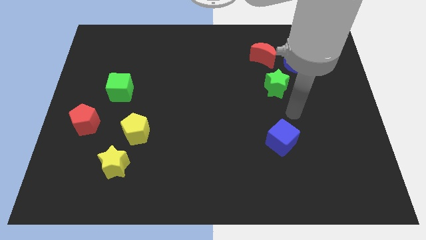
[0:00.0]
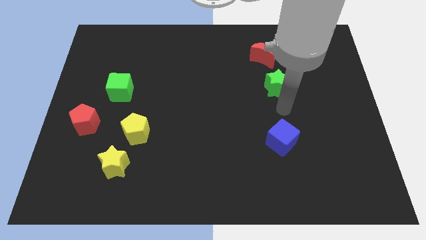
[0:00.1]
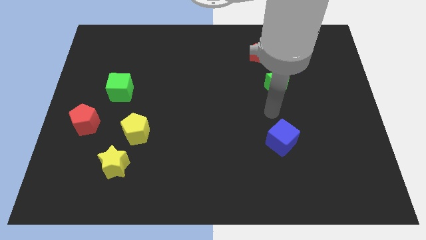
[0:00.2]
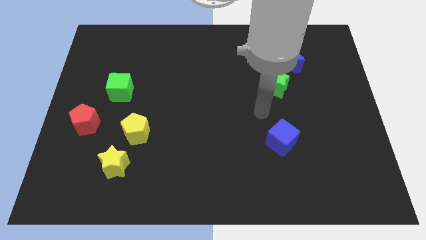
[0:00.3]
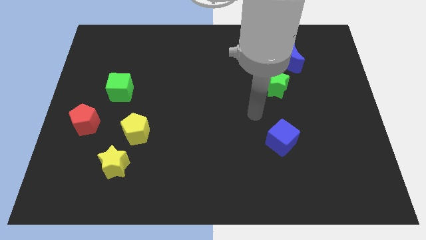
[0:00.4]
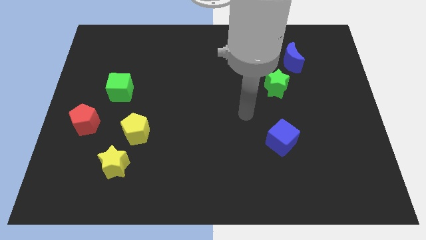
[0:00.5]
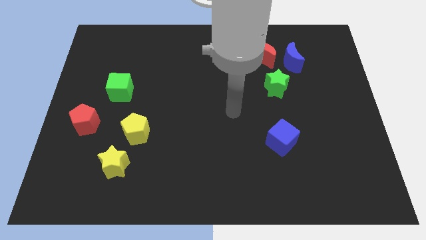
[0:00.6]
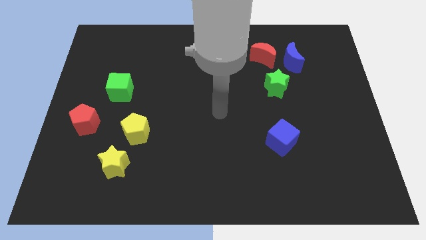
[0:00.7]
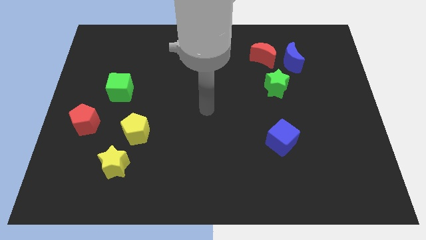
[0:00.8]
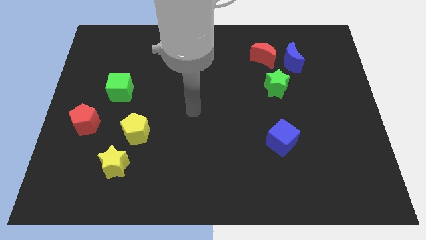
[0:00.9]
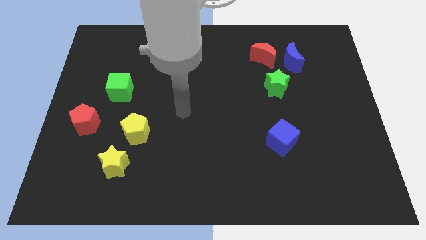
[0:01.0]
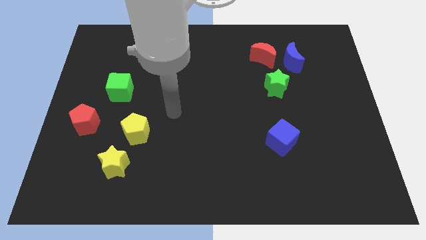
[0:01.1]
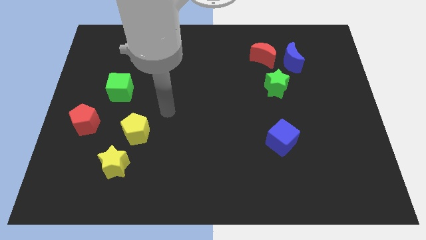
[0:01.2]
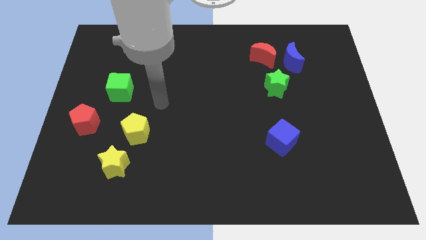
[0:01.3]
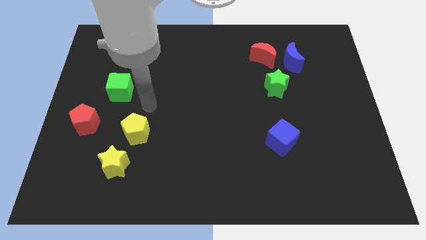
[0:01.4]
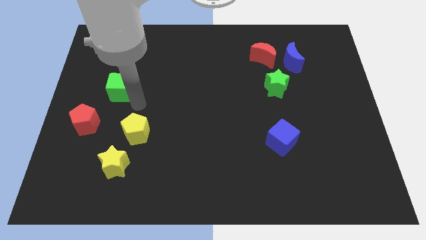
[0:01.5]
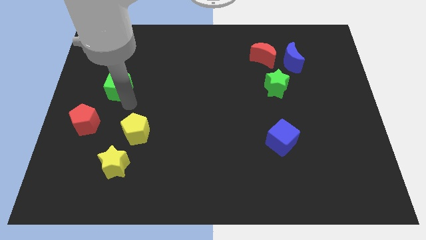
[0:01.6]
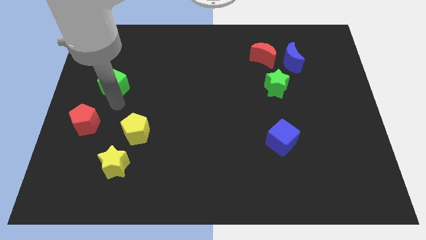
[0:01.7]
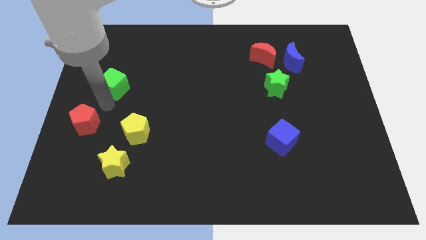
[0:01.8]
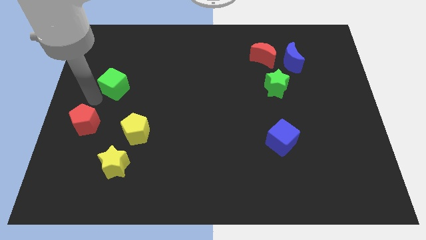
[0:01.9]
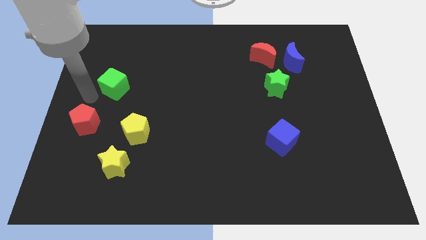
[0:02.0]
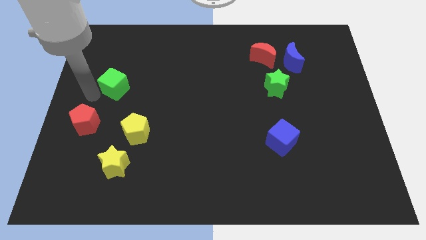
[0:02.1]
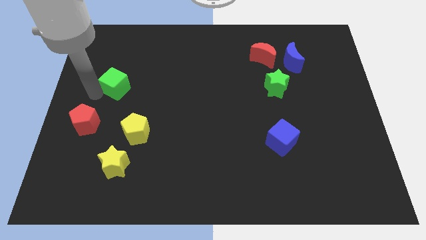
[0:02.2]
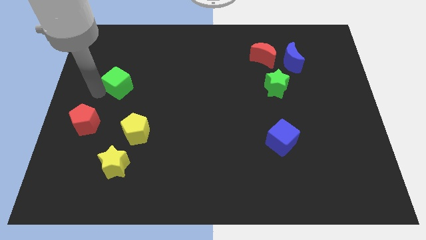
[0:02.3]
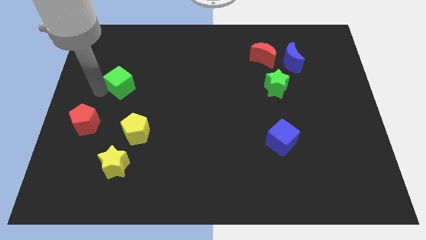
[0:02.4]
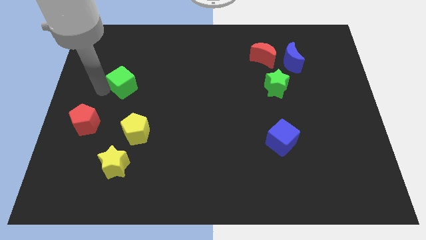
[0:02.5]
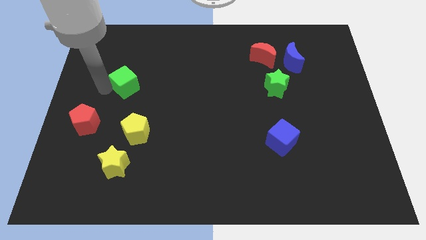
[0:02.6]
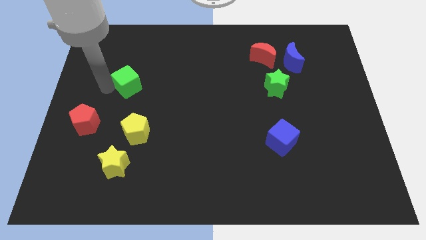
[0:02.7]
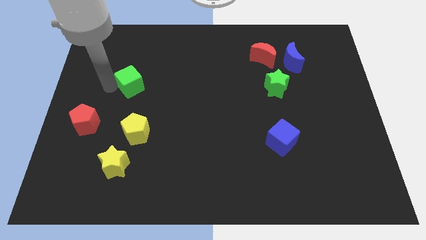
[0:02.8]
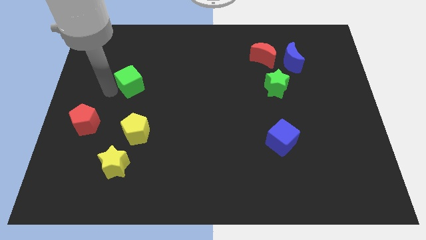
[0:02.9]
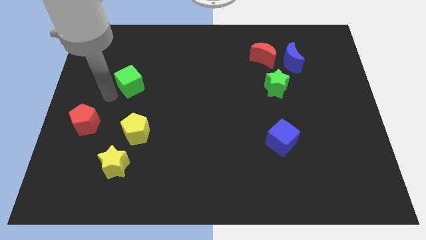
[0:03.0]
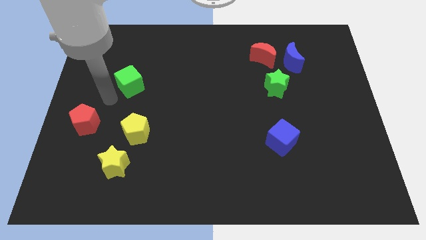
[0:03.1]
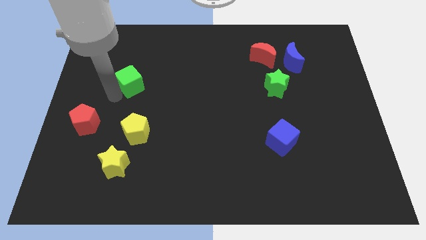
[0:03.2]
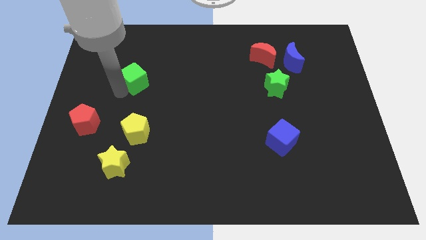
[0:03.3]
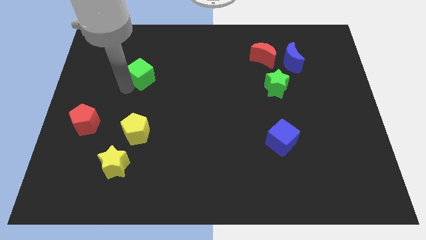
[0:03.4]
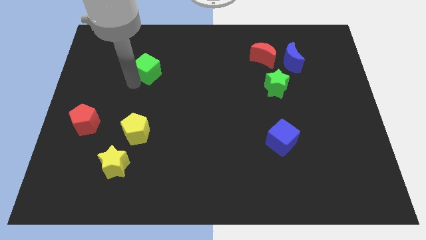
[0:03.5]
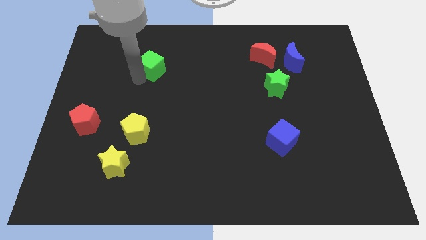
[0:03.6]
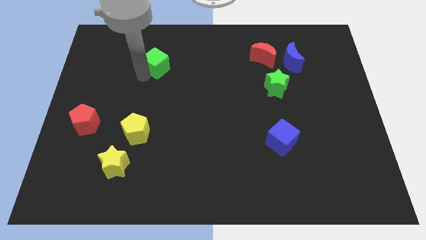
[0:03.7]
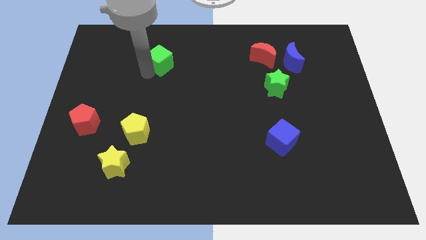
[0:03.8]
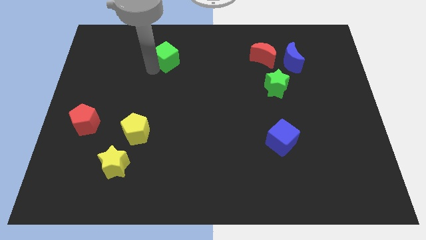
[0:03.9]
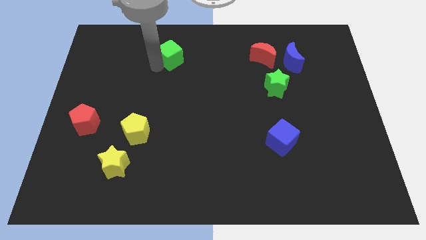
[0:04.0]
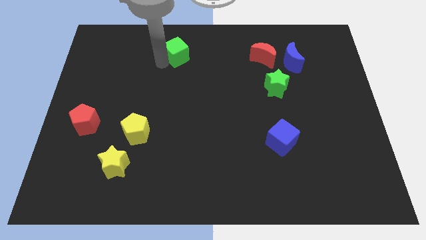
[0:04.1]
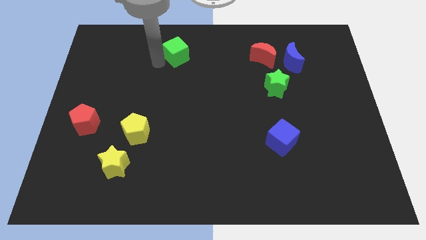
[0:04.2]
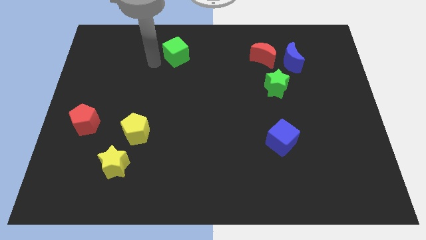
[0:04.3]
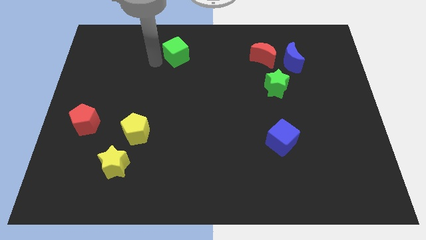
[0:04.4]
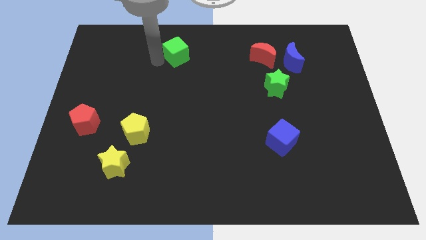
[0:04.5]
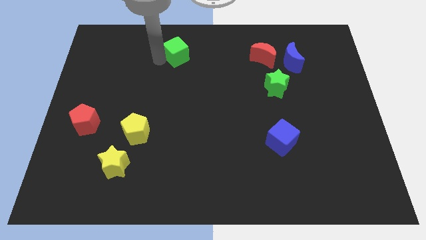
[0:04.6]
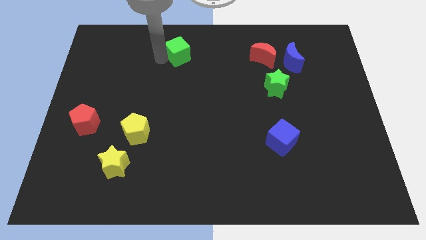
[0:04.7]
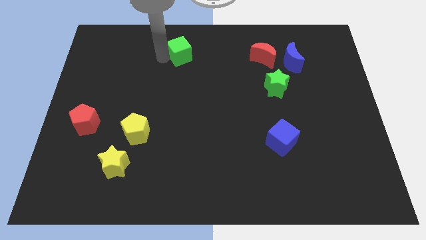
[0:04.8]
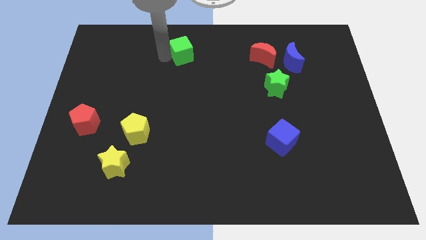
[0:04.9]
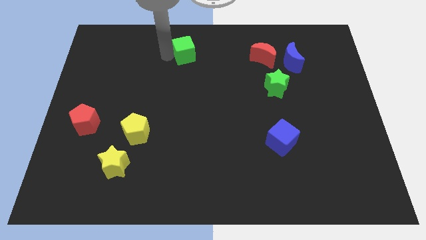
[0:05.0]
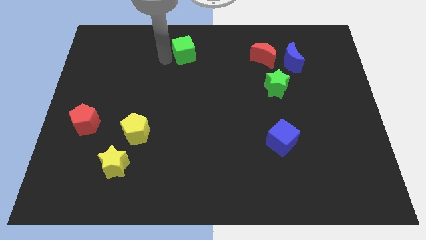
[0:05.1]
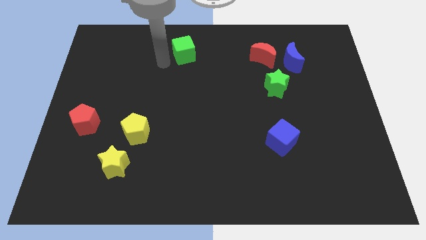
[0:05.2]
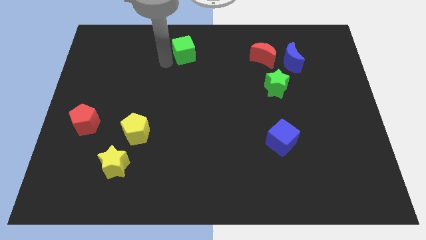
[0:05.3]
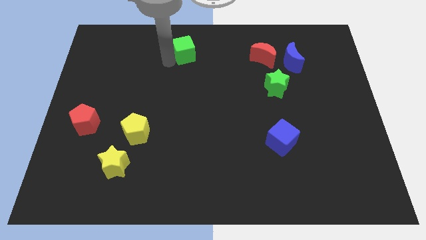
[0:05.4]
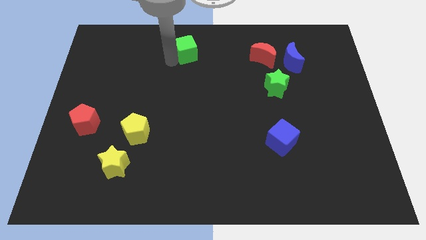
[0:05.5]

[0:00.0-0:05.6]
slide the green cube to the top
